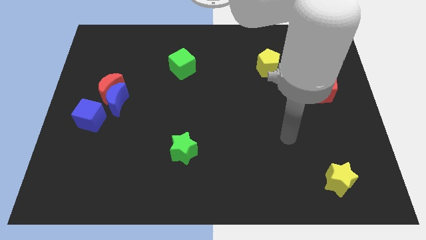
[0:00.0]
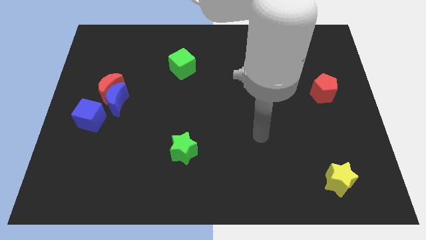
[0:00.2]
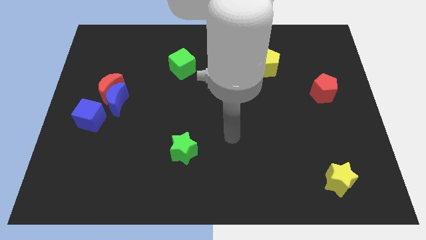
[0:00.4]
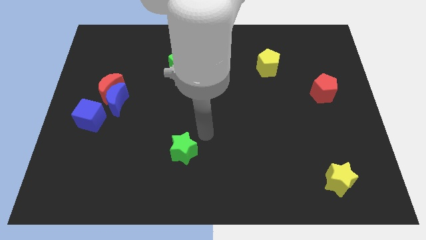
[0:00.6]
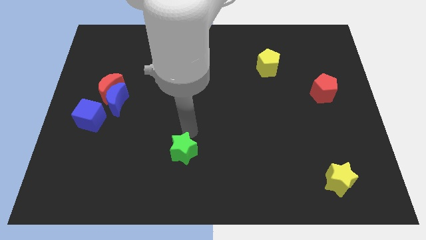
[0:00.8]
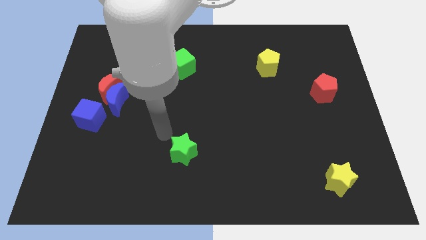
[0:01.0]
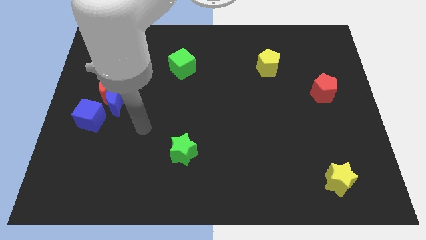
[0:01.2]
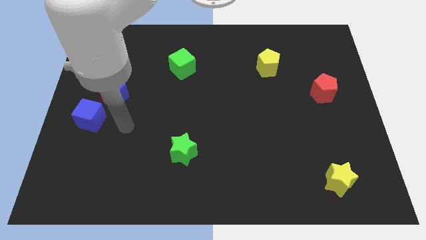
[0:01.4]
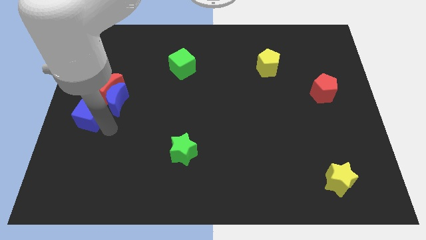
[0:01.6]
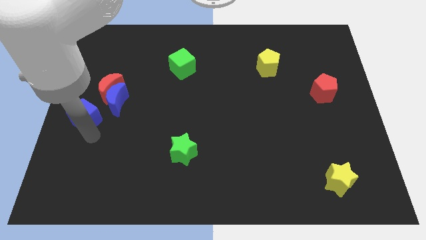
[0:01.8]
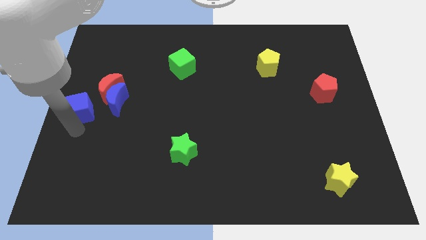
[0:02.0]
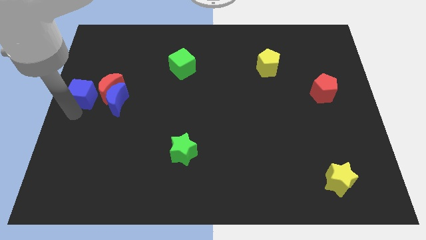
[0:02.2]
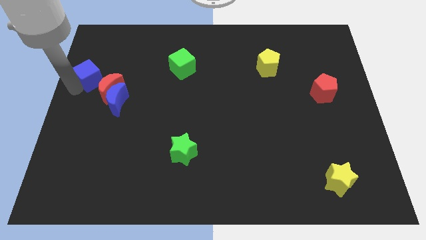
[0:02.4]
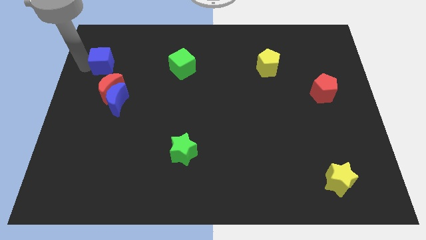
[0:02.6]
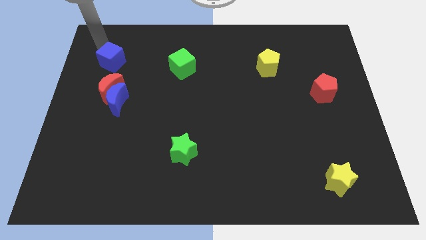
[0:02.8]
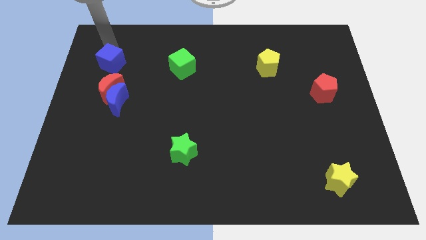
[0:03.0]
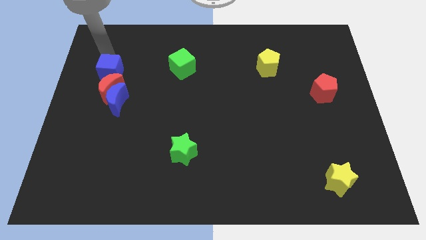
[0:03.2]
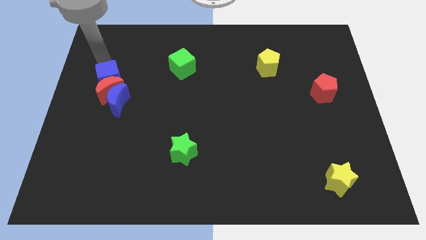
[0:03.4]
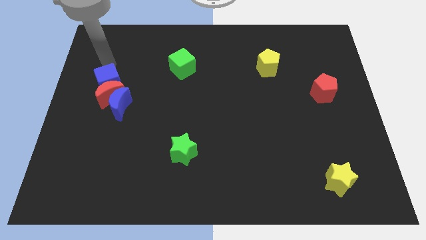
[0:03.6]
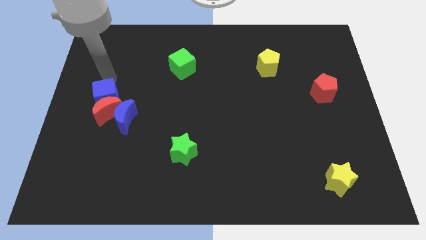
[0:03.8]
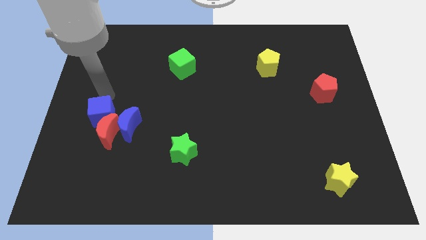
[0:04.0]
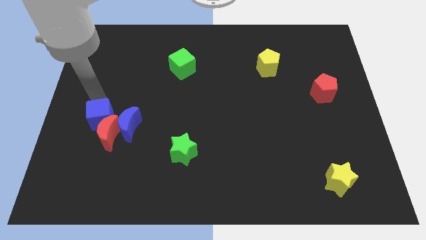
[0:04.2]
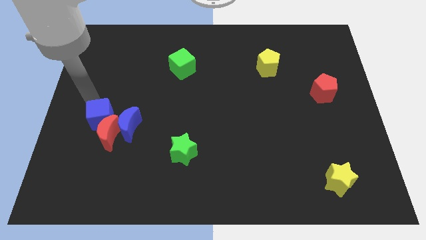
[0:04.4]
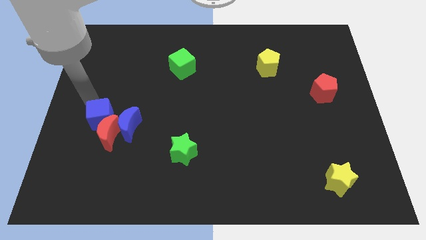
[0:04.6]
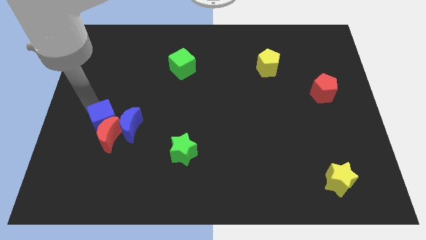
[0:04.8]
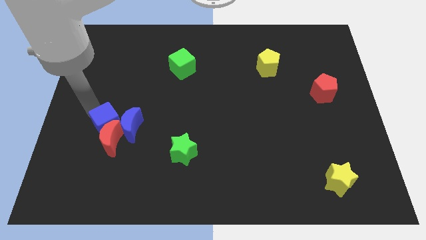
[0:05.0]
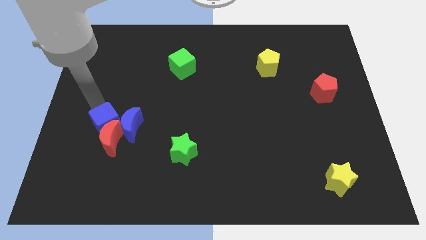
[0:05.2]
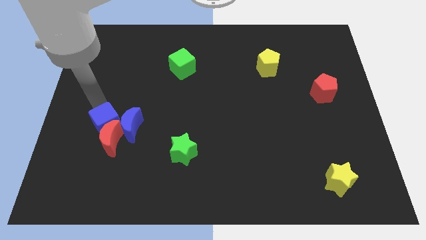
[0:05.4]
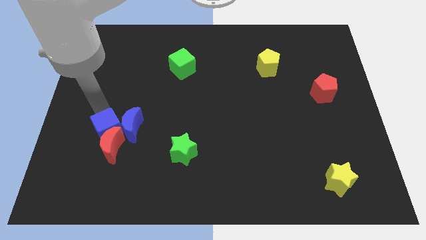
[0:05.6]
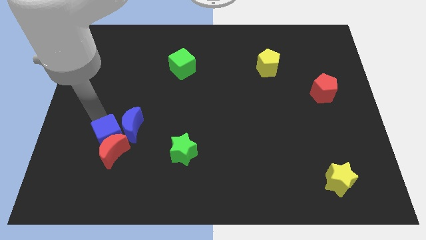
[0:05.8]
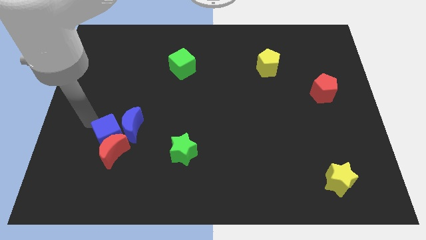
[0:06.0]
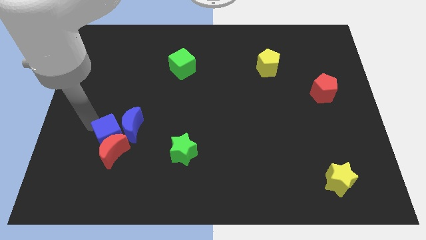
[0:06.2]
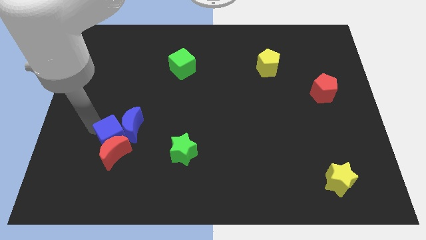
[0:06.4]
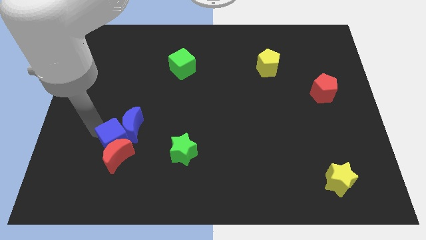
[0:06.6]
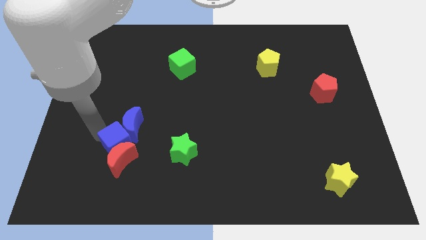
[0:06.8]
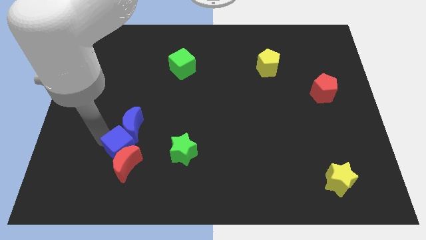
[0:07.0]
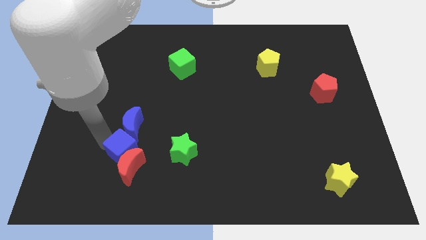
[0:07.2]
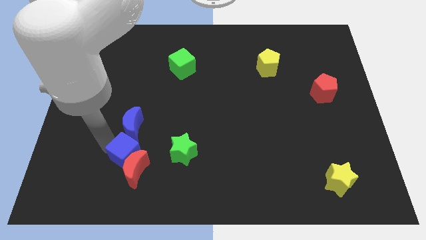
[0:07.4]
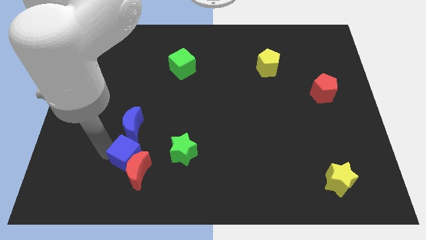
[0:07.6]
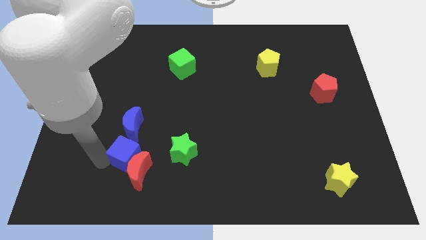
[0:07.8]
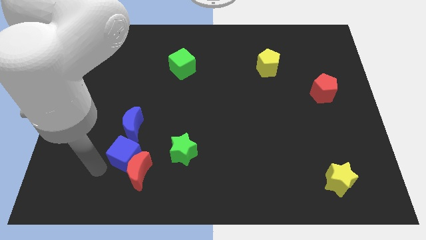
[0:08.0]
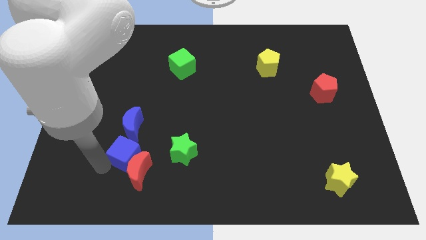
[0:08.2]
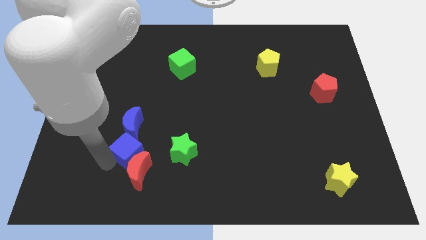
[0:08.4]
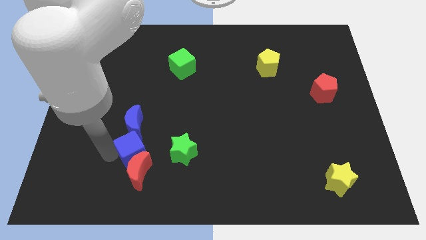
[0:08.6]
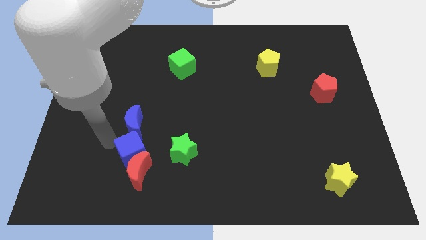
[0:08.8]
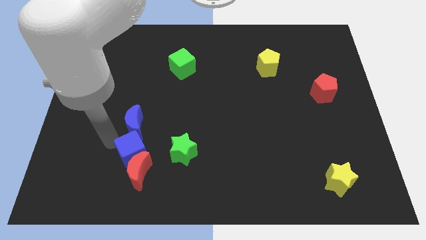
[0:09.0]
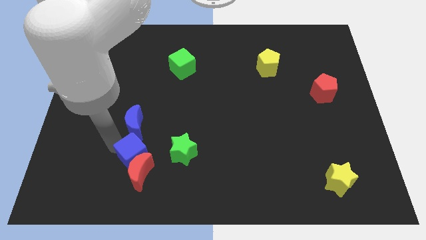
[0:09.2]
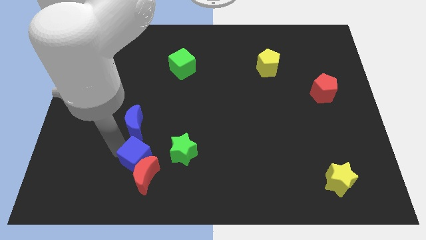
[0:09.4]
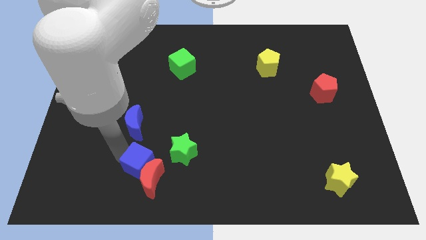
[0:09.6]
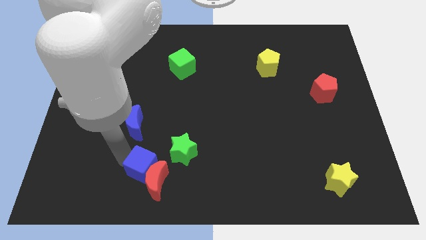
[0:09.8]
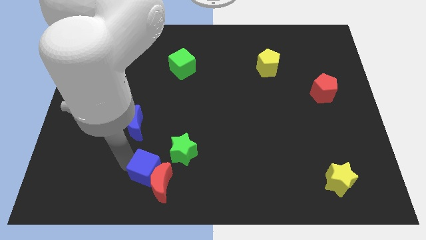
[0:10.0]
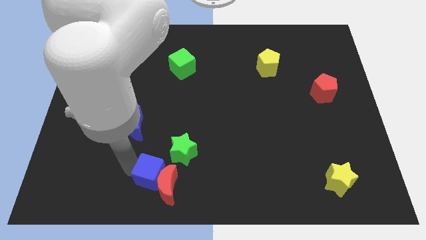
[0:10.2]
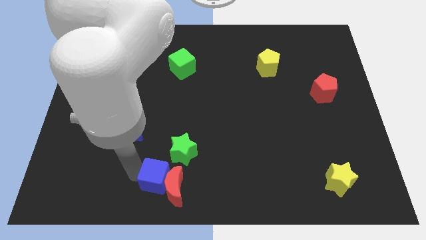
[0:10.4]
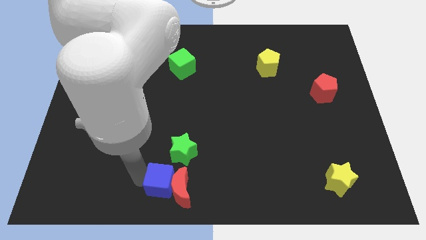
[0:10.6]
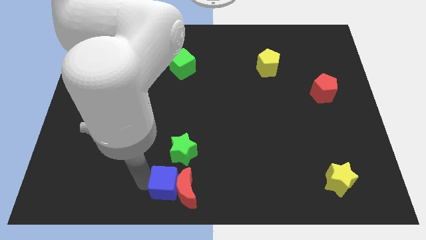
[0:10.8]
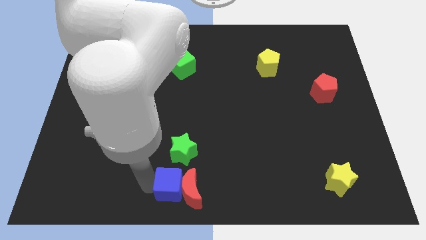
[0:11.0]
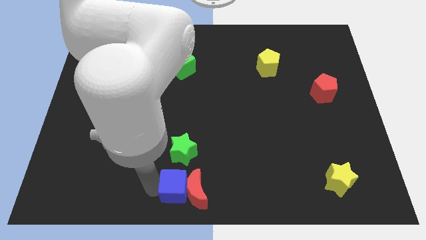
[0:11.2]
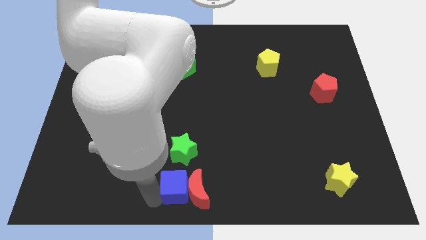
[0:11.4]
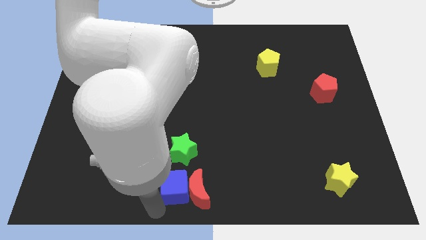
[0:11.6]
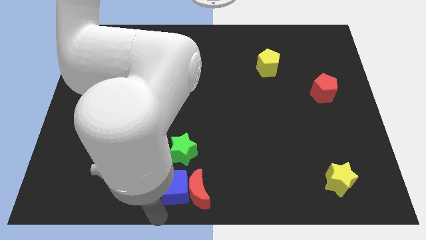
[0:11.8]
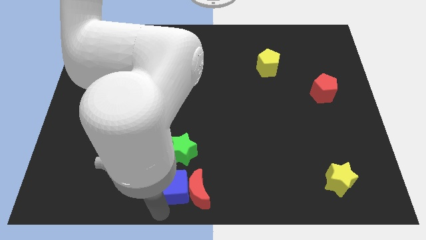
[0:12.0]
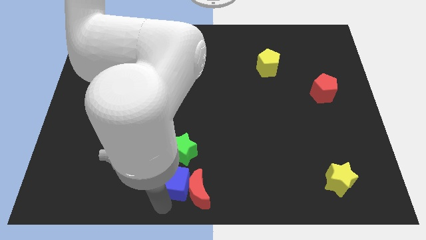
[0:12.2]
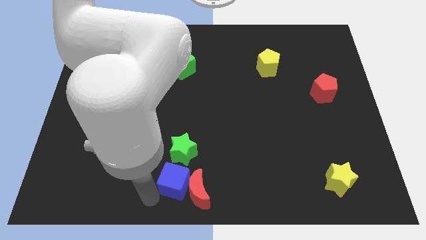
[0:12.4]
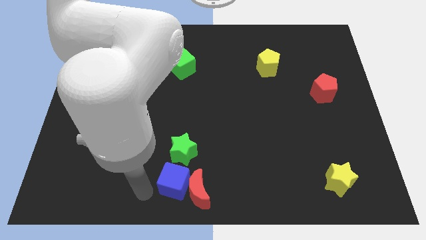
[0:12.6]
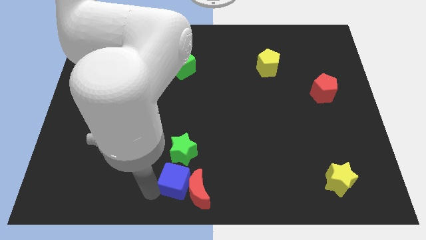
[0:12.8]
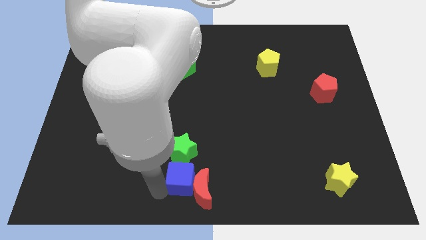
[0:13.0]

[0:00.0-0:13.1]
push the blue cube to the bottom right of the green star

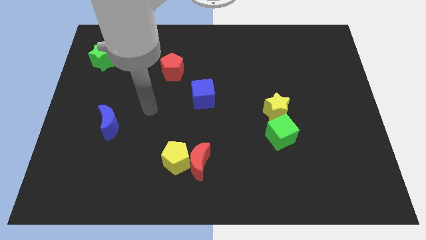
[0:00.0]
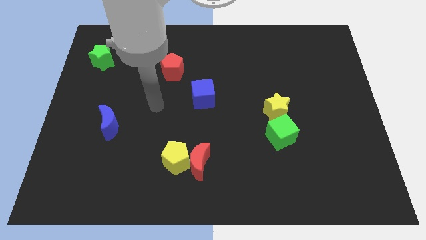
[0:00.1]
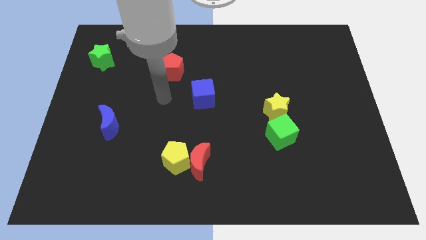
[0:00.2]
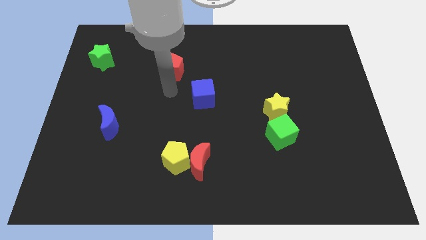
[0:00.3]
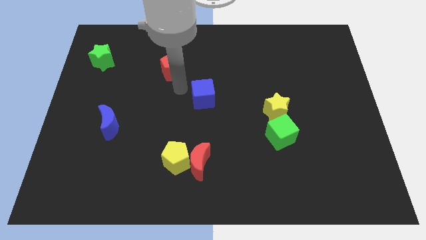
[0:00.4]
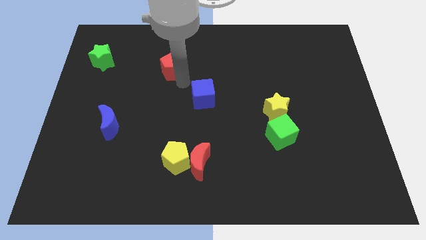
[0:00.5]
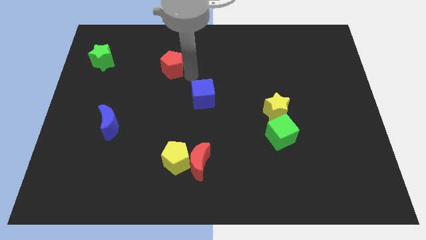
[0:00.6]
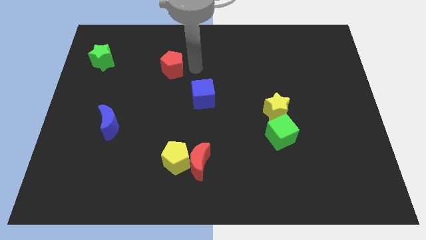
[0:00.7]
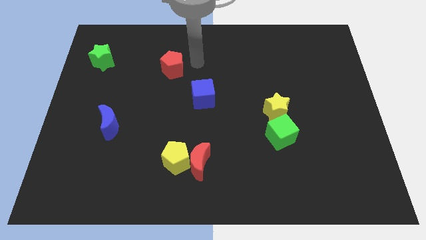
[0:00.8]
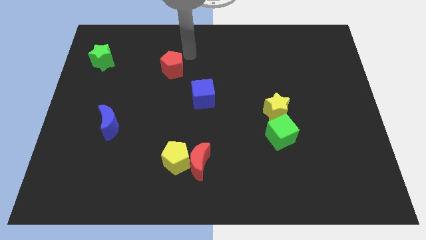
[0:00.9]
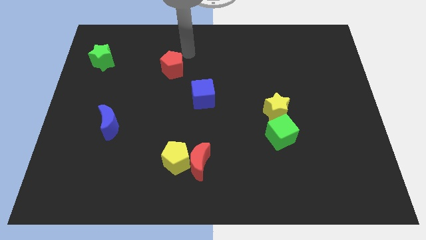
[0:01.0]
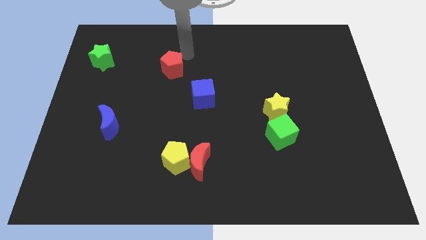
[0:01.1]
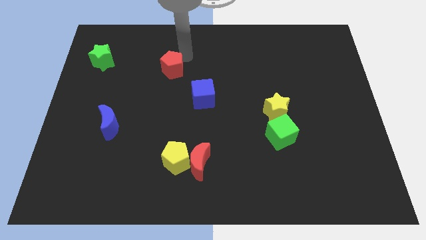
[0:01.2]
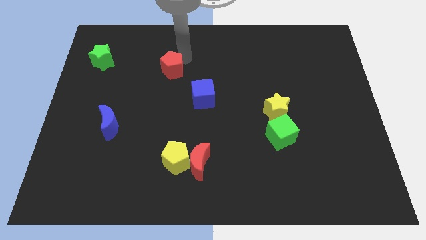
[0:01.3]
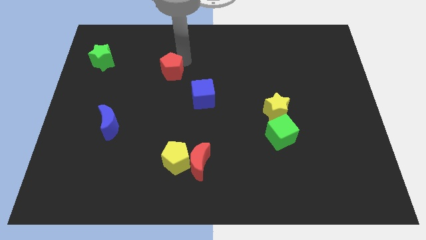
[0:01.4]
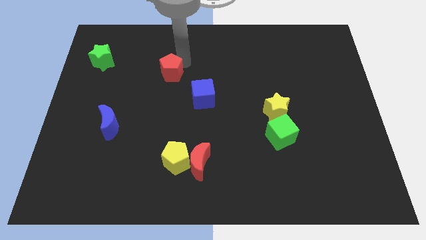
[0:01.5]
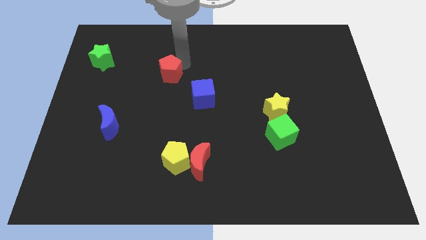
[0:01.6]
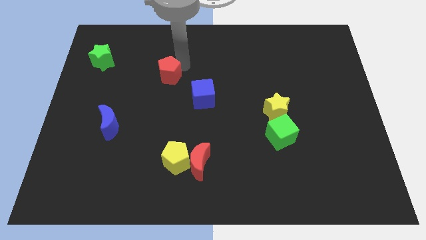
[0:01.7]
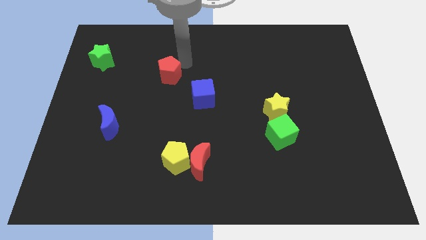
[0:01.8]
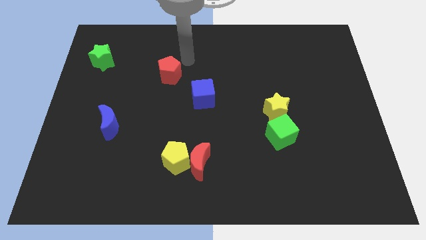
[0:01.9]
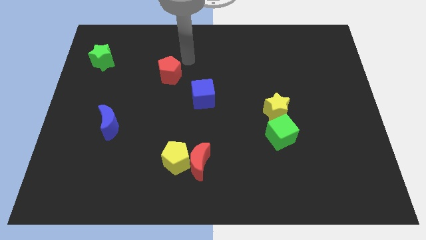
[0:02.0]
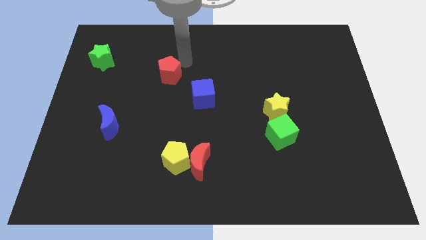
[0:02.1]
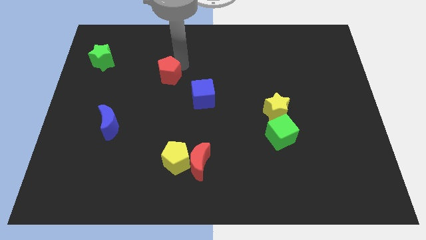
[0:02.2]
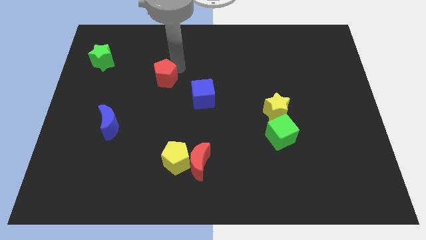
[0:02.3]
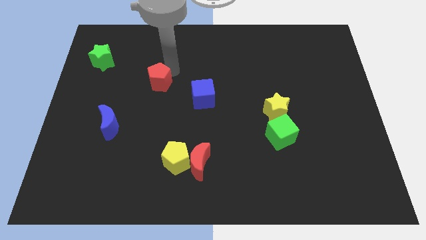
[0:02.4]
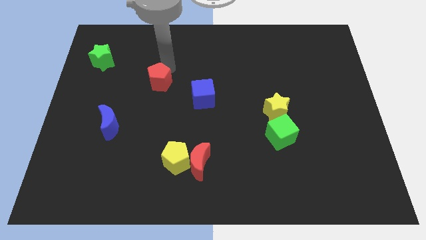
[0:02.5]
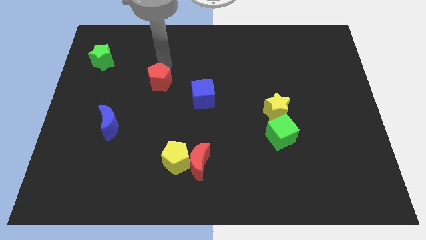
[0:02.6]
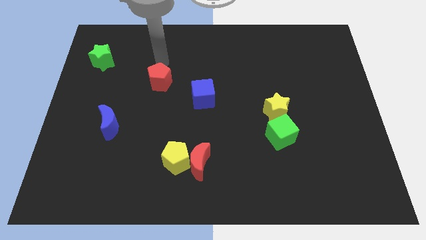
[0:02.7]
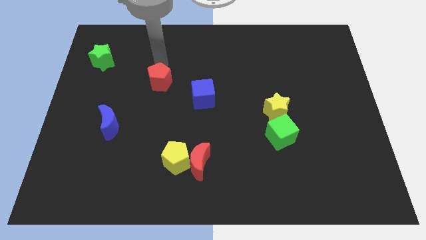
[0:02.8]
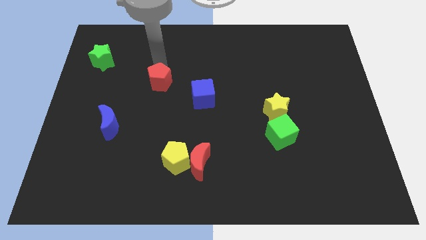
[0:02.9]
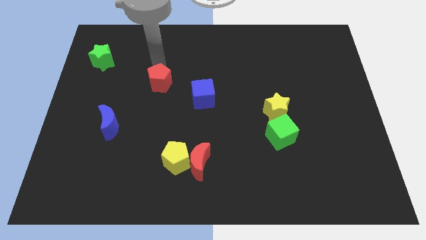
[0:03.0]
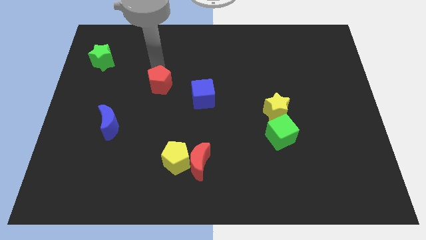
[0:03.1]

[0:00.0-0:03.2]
move the red pentagon left of the blue cube
